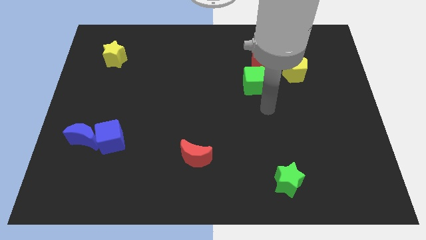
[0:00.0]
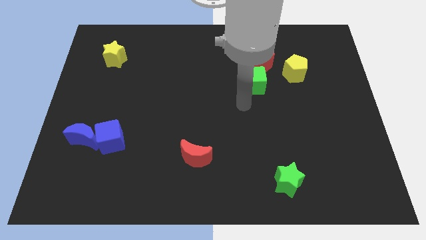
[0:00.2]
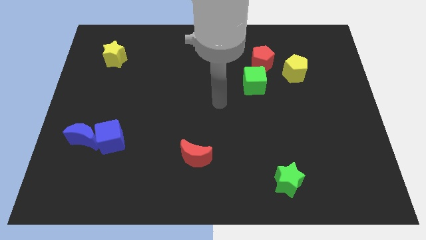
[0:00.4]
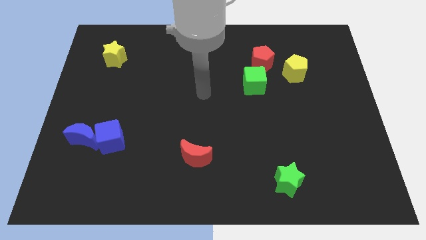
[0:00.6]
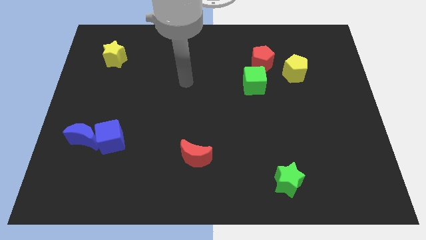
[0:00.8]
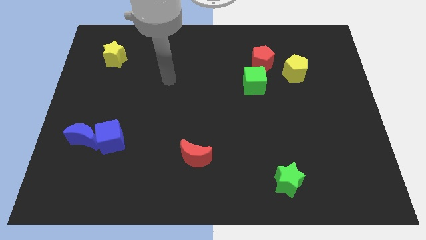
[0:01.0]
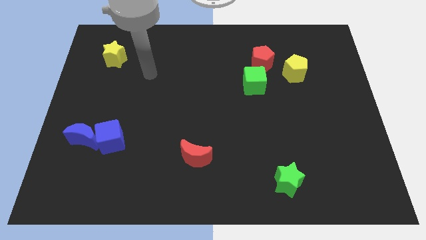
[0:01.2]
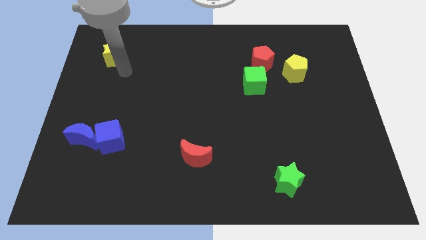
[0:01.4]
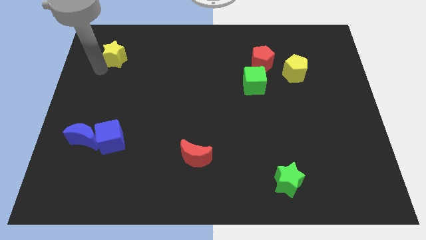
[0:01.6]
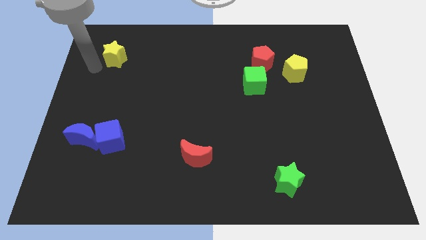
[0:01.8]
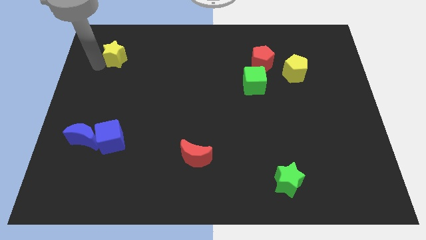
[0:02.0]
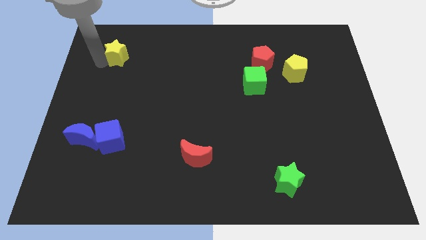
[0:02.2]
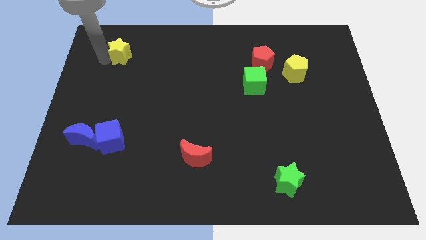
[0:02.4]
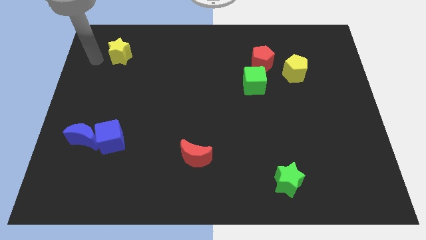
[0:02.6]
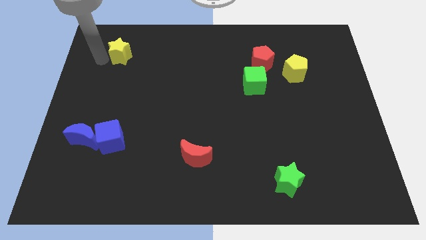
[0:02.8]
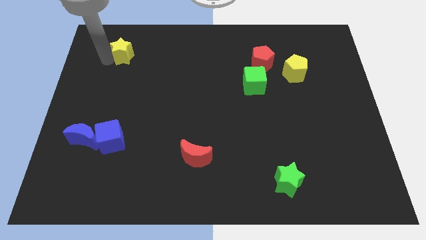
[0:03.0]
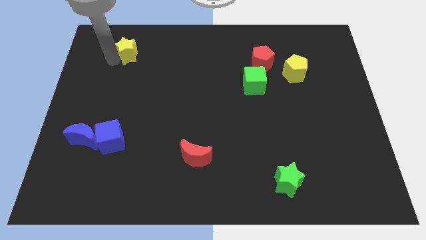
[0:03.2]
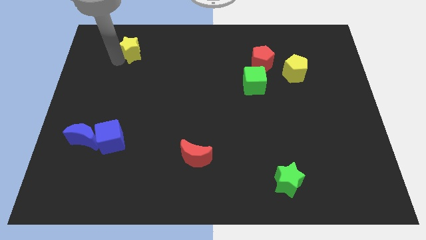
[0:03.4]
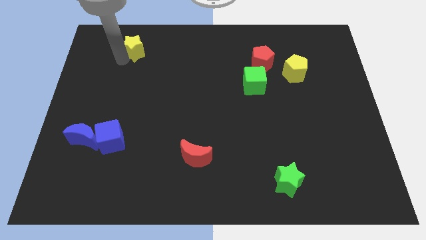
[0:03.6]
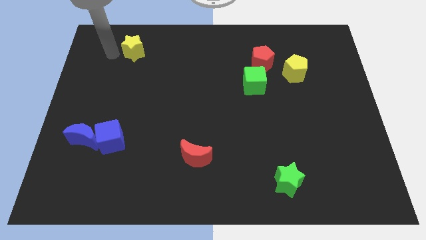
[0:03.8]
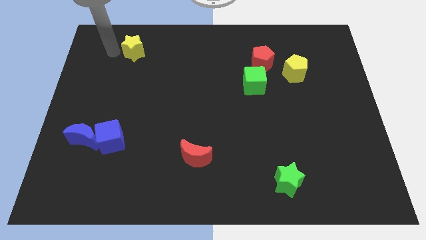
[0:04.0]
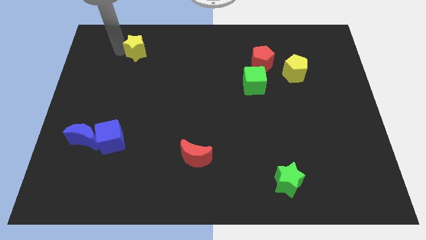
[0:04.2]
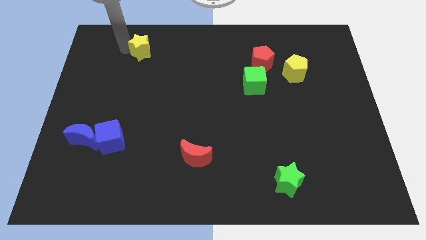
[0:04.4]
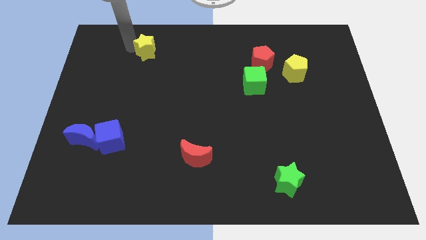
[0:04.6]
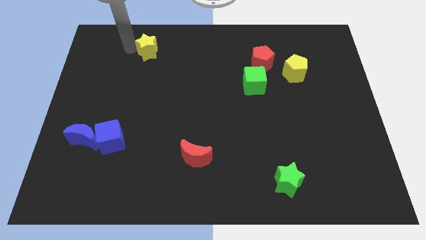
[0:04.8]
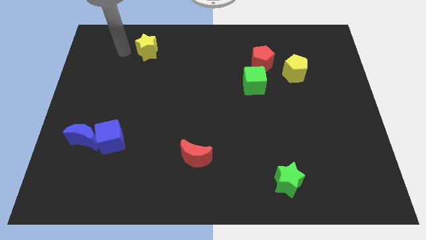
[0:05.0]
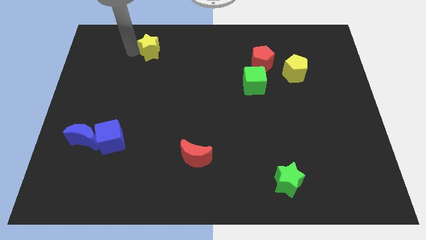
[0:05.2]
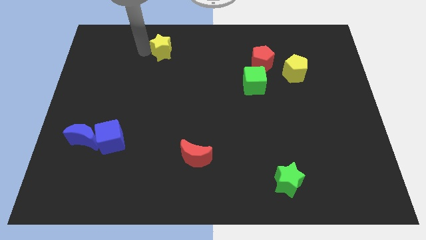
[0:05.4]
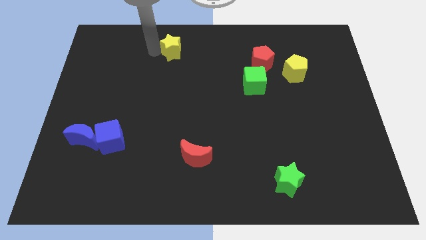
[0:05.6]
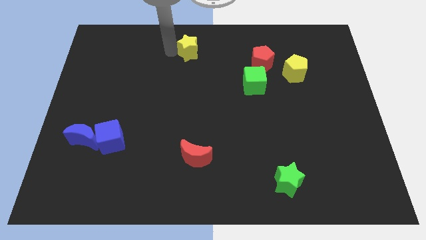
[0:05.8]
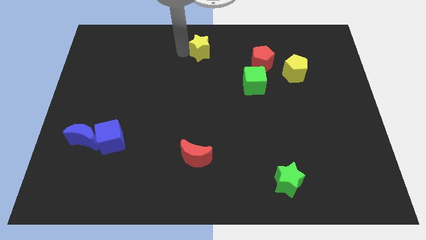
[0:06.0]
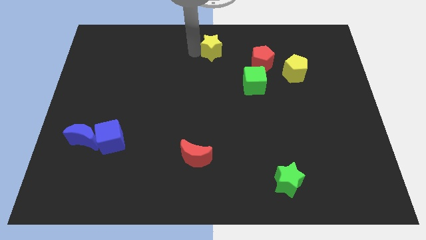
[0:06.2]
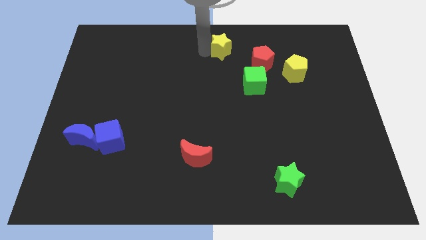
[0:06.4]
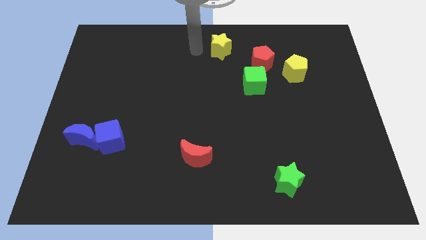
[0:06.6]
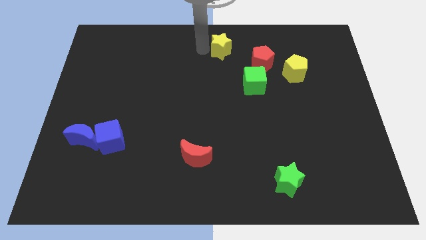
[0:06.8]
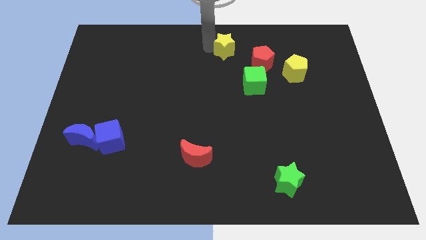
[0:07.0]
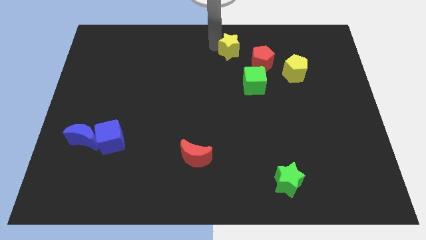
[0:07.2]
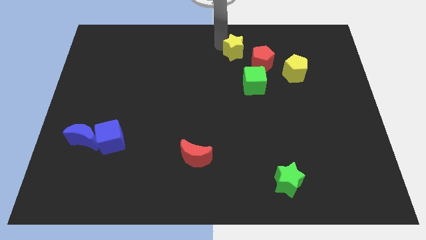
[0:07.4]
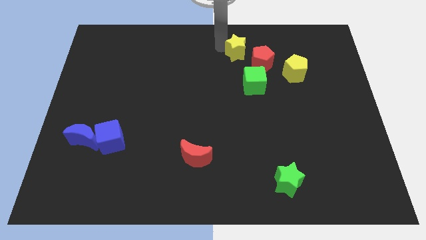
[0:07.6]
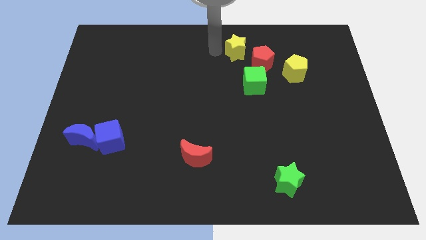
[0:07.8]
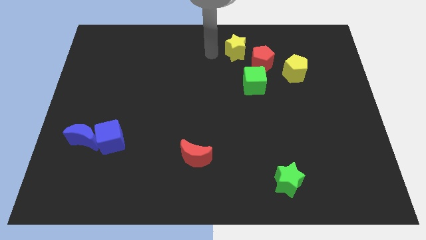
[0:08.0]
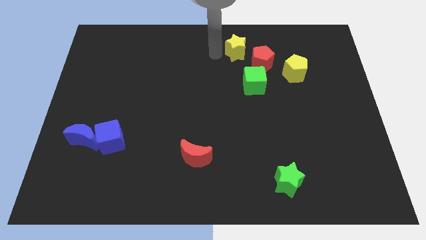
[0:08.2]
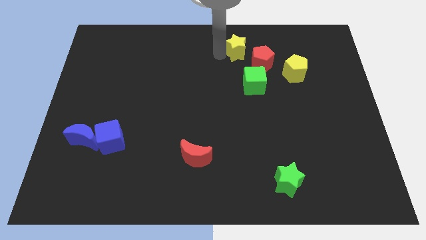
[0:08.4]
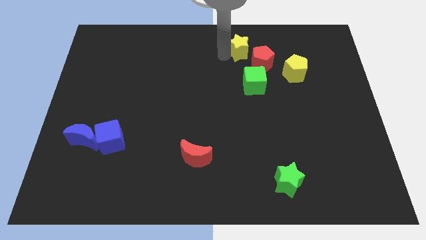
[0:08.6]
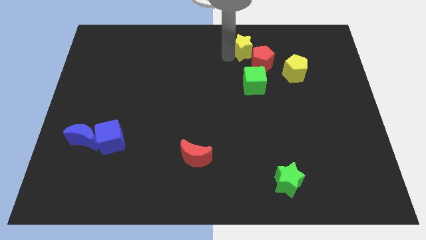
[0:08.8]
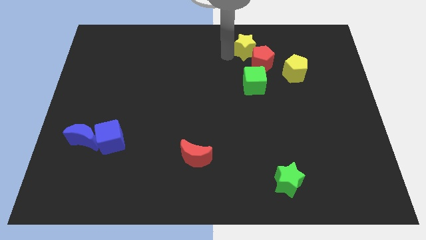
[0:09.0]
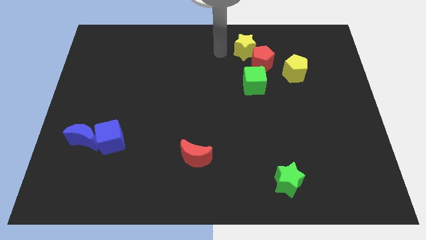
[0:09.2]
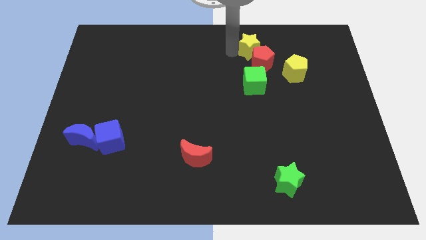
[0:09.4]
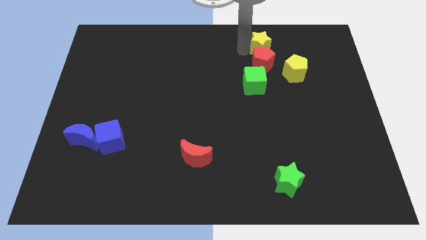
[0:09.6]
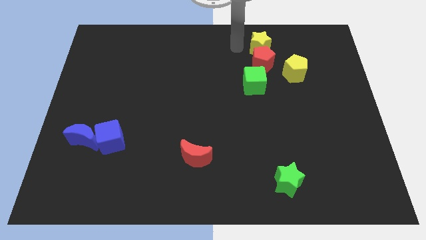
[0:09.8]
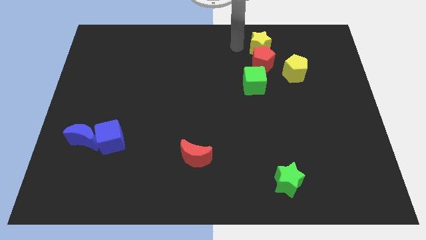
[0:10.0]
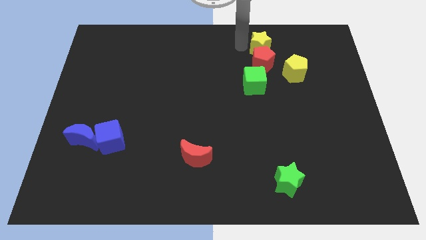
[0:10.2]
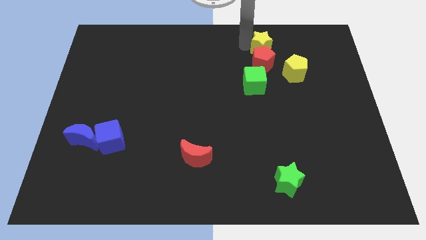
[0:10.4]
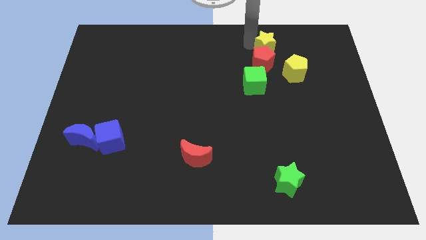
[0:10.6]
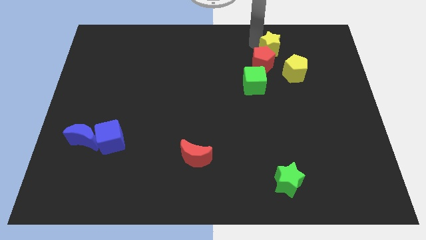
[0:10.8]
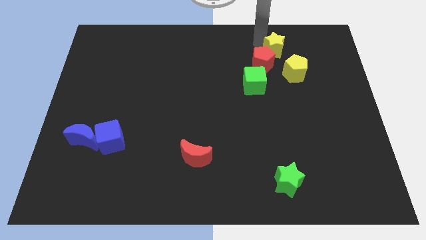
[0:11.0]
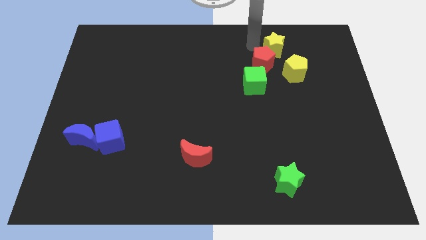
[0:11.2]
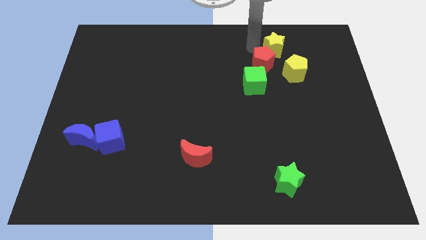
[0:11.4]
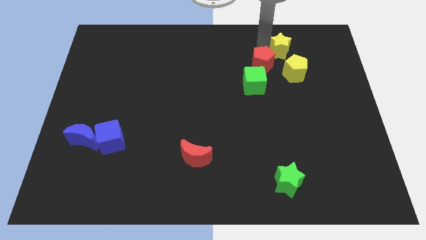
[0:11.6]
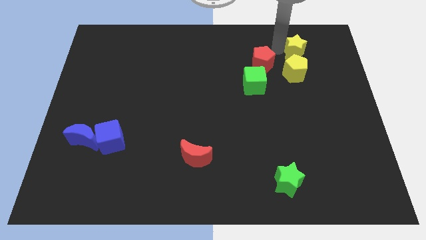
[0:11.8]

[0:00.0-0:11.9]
push the yellow star diagonally up and to the right of the yellow pentagon
